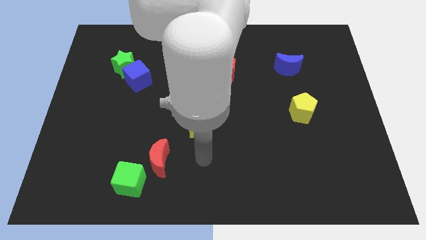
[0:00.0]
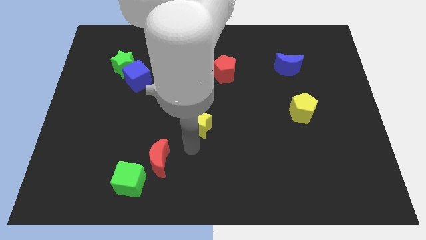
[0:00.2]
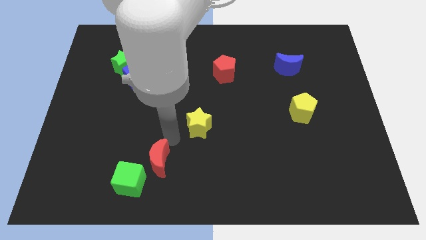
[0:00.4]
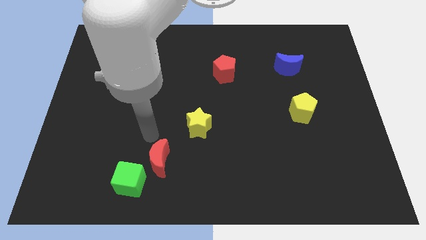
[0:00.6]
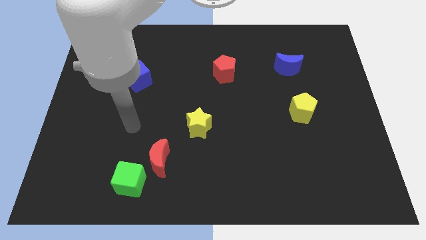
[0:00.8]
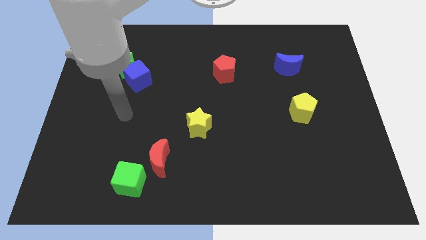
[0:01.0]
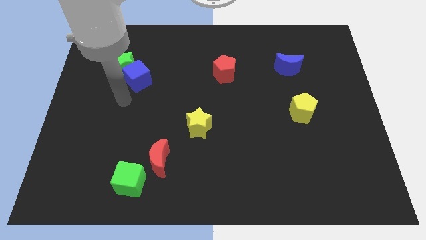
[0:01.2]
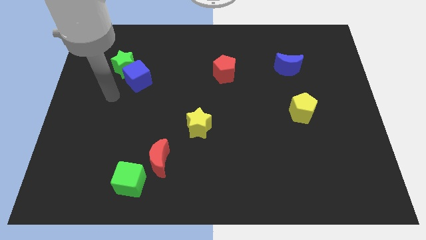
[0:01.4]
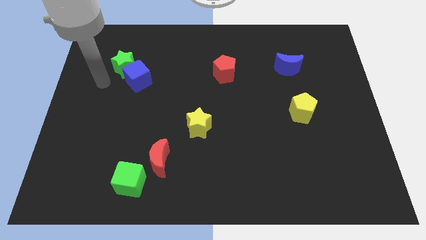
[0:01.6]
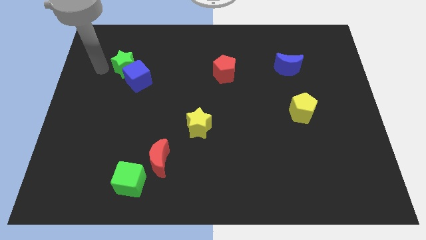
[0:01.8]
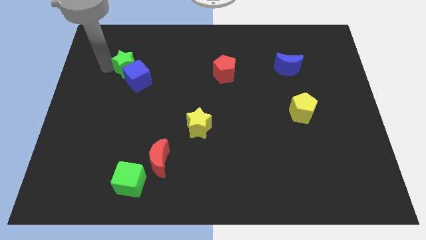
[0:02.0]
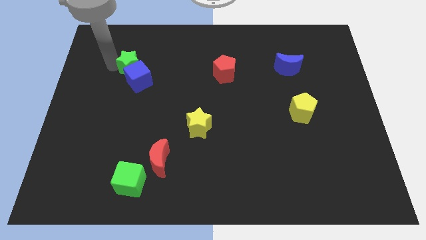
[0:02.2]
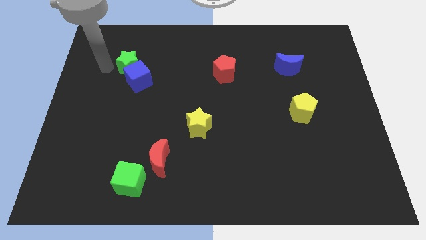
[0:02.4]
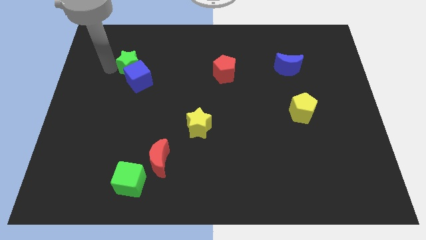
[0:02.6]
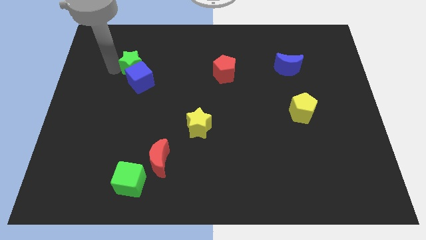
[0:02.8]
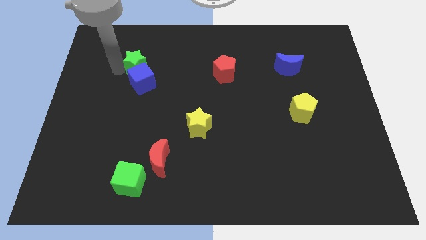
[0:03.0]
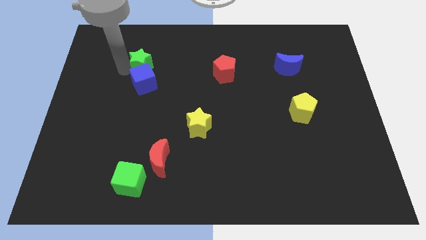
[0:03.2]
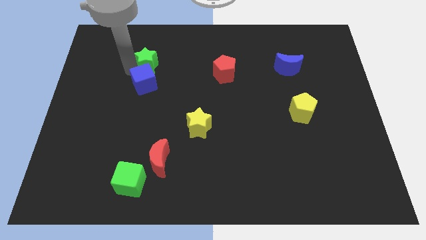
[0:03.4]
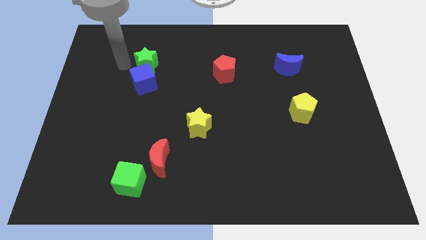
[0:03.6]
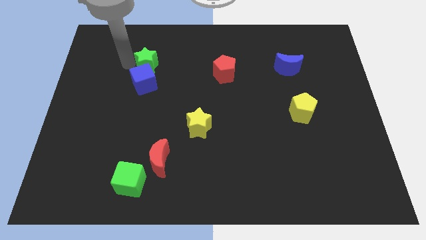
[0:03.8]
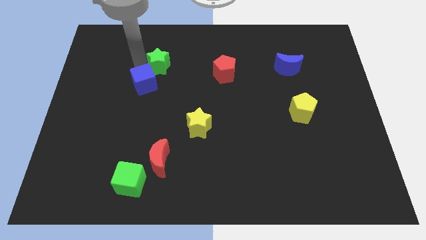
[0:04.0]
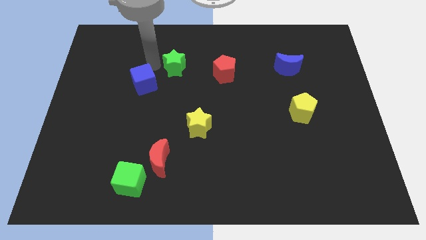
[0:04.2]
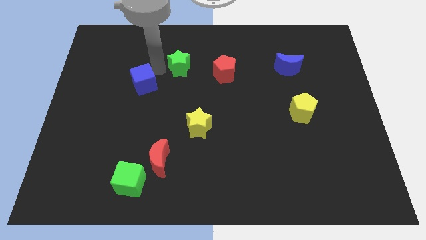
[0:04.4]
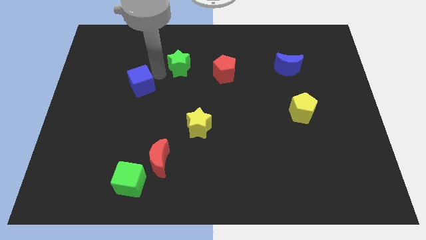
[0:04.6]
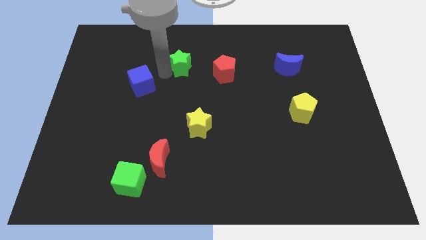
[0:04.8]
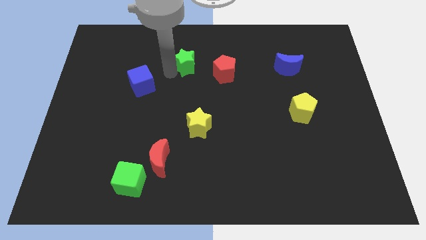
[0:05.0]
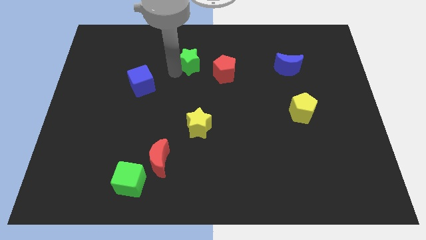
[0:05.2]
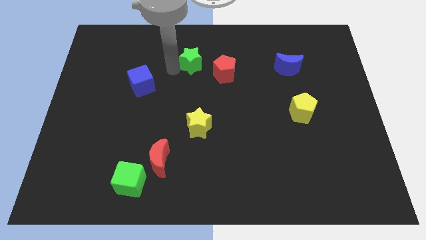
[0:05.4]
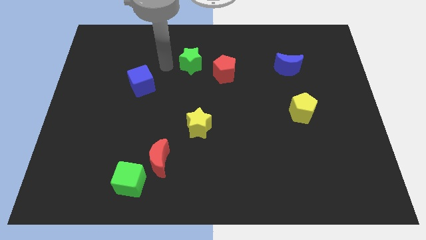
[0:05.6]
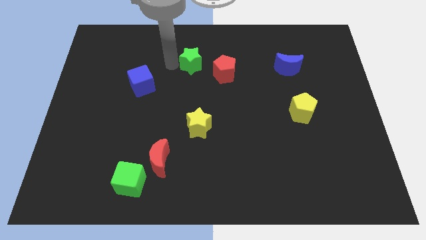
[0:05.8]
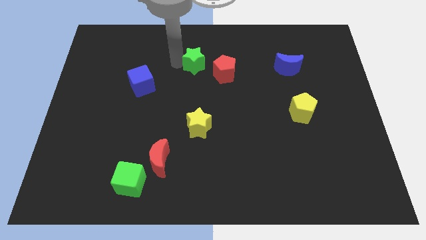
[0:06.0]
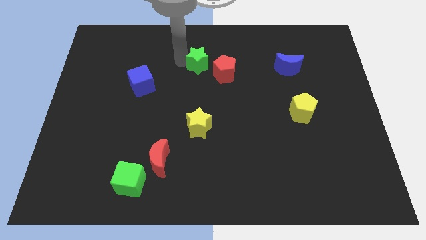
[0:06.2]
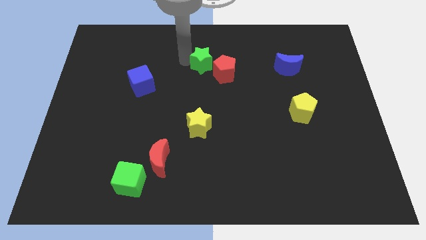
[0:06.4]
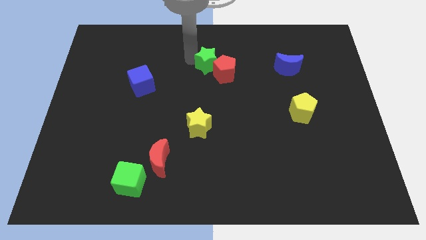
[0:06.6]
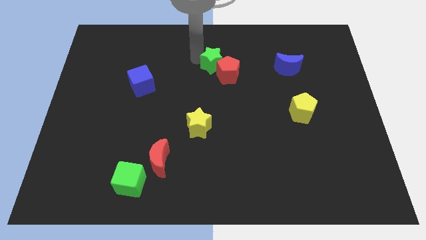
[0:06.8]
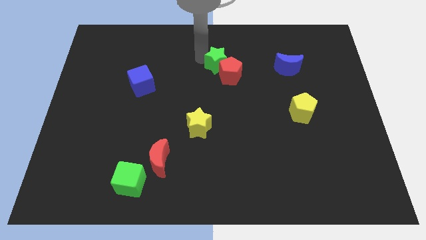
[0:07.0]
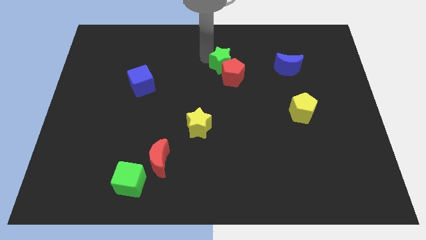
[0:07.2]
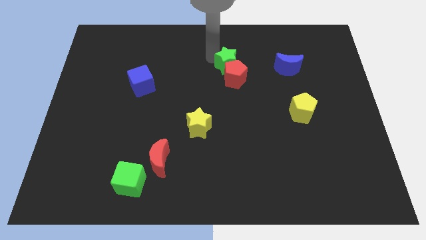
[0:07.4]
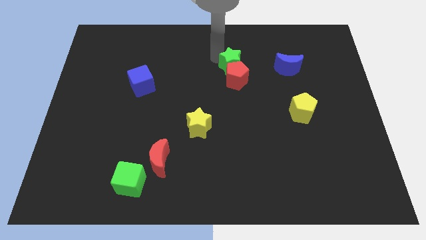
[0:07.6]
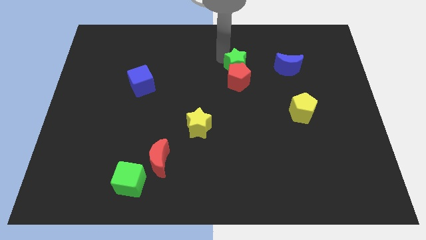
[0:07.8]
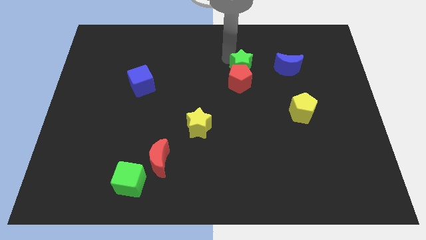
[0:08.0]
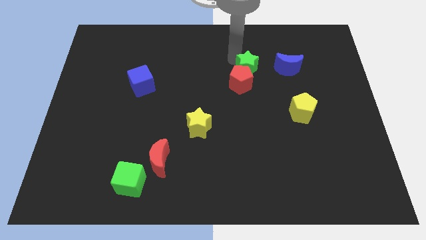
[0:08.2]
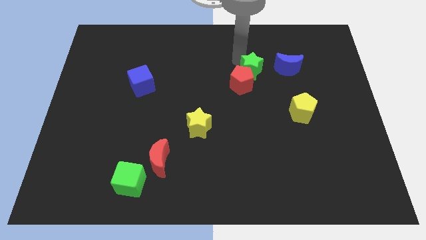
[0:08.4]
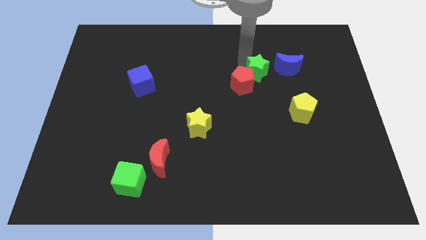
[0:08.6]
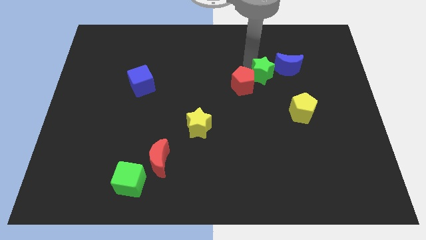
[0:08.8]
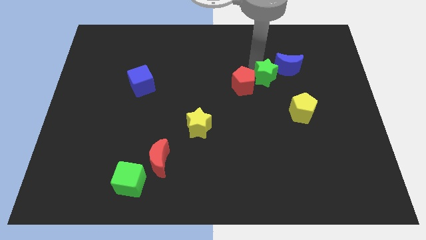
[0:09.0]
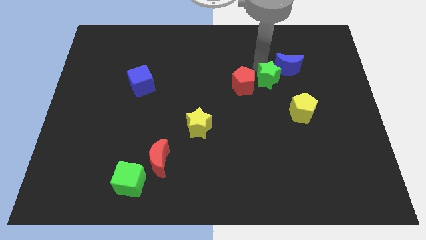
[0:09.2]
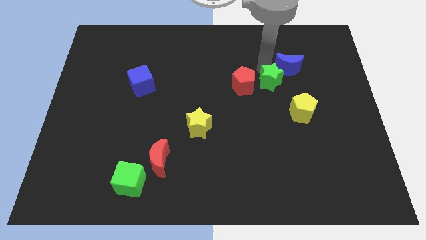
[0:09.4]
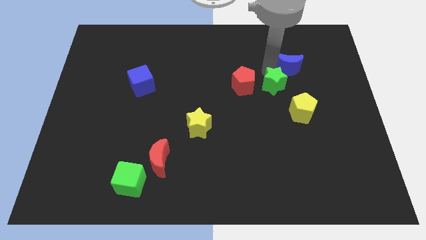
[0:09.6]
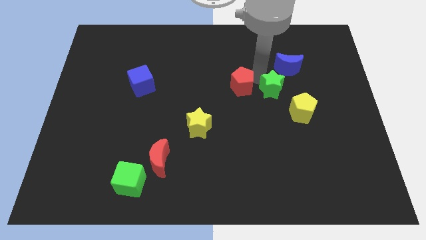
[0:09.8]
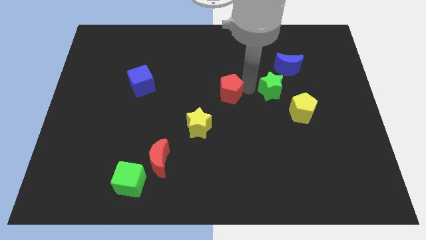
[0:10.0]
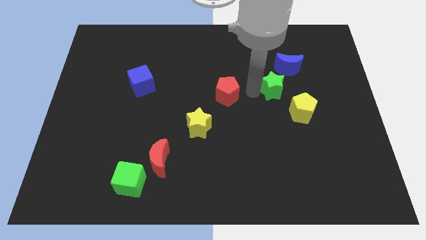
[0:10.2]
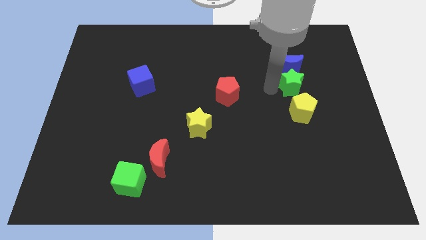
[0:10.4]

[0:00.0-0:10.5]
put the green star diagonally down and to the right of the blue moon

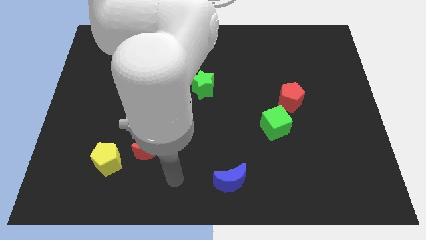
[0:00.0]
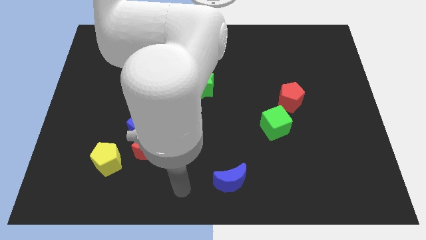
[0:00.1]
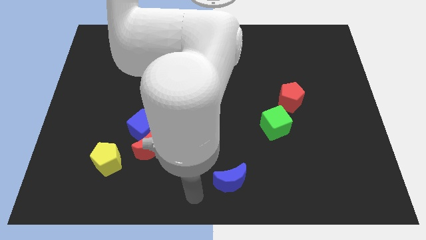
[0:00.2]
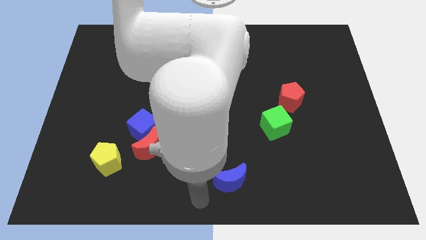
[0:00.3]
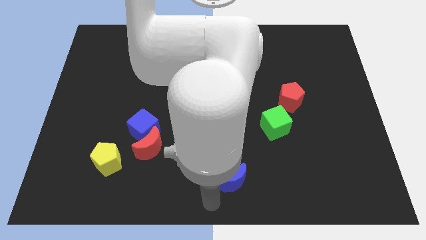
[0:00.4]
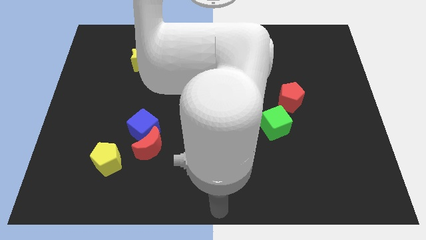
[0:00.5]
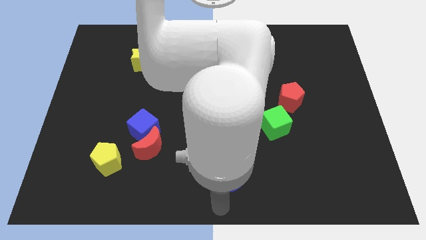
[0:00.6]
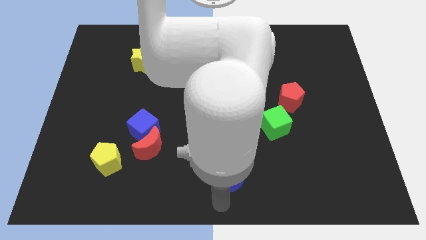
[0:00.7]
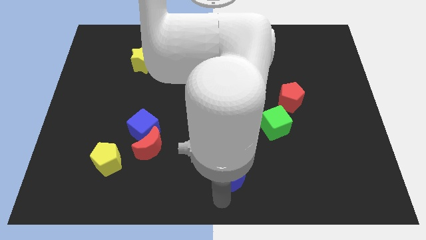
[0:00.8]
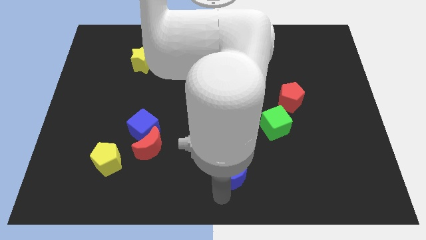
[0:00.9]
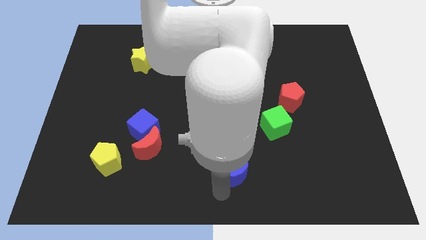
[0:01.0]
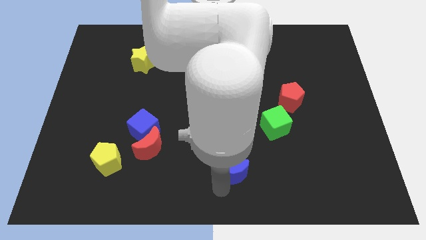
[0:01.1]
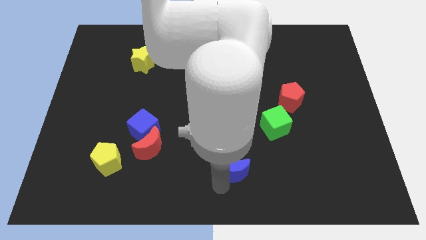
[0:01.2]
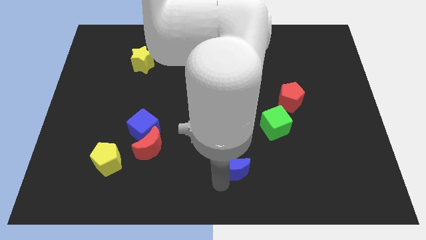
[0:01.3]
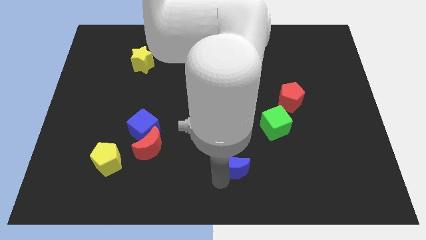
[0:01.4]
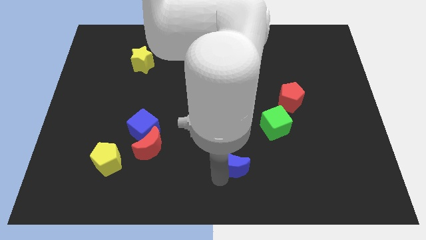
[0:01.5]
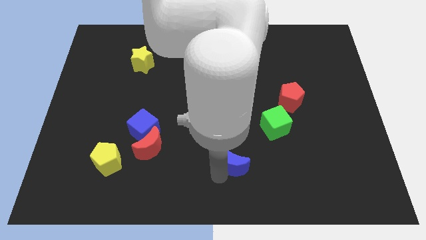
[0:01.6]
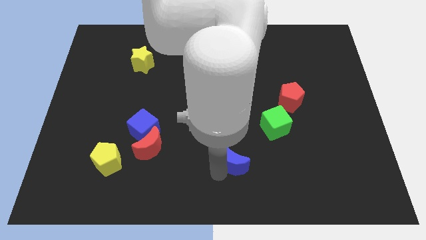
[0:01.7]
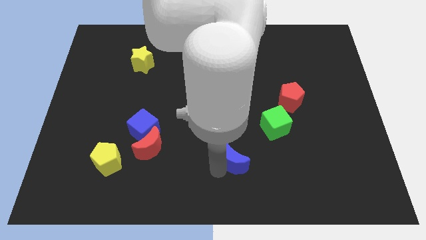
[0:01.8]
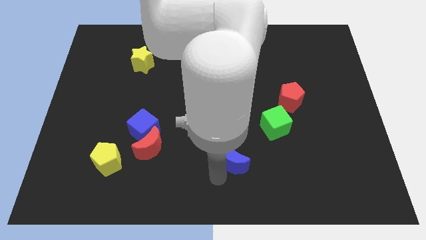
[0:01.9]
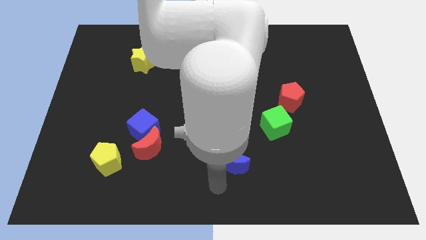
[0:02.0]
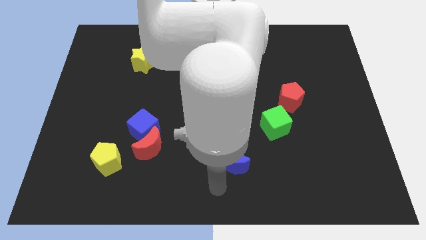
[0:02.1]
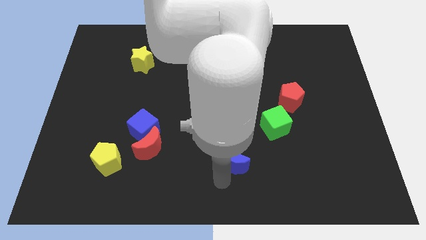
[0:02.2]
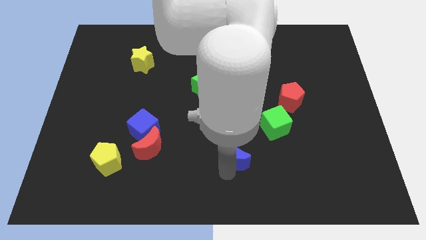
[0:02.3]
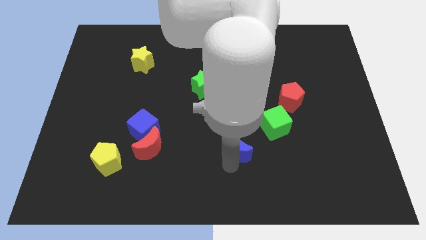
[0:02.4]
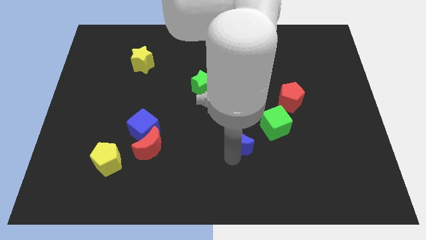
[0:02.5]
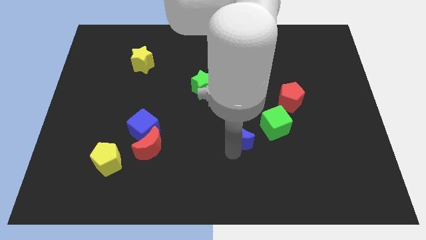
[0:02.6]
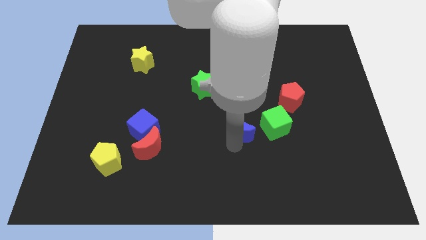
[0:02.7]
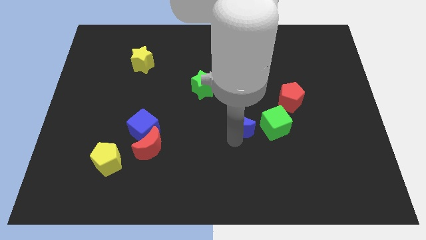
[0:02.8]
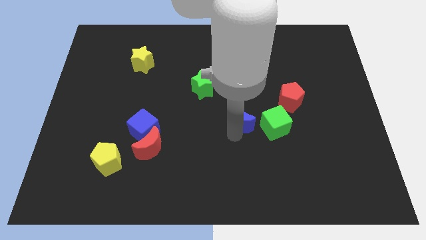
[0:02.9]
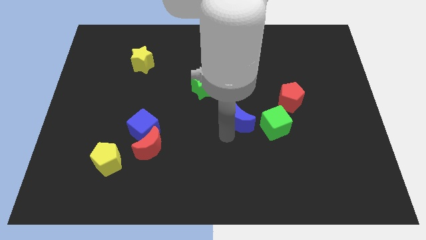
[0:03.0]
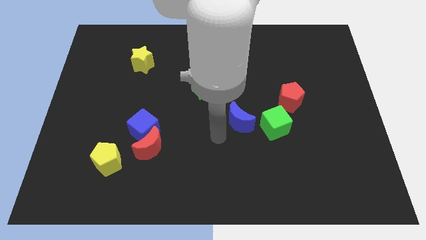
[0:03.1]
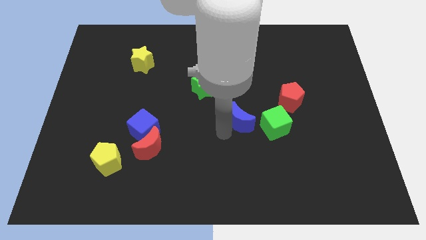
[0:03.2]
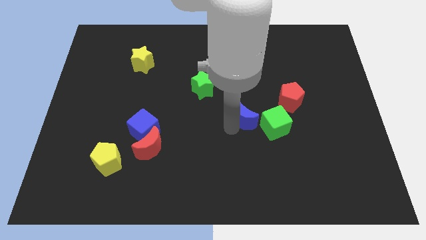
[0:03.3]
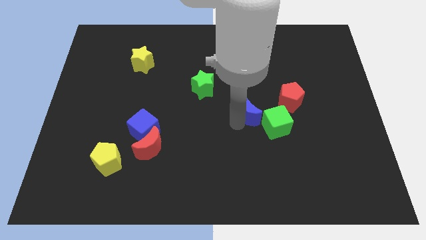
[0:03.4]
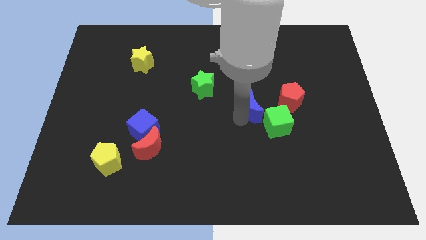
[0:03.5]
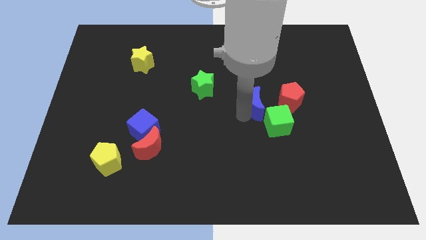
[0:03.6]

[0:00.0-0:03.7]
move the blue moon to the top of the green cube
